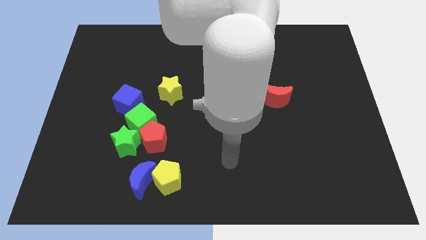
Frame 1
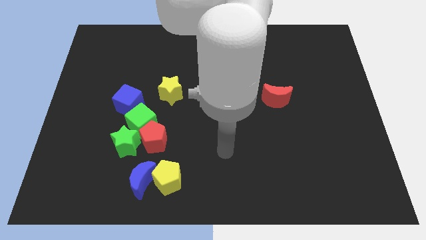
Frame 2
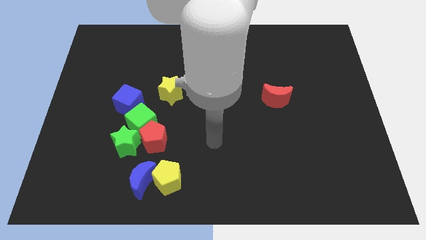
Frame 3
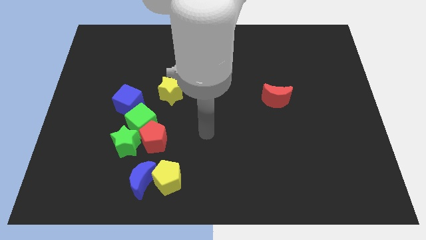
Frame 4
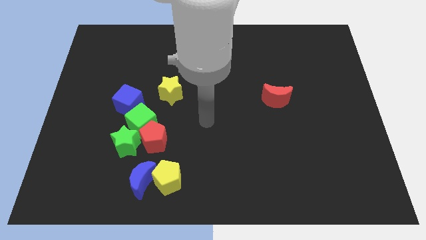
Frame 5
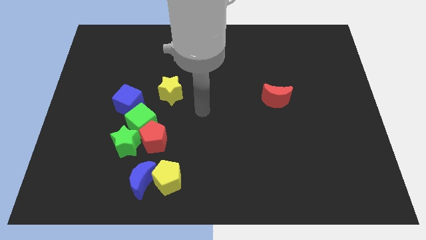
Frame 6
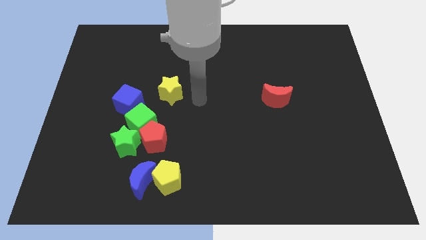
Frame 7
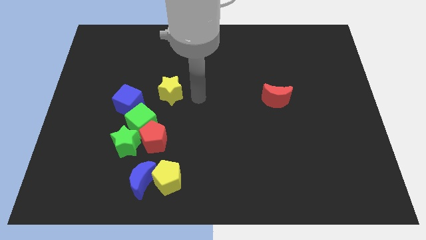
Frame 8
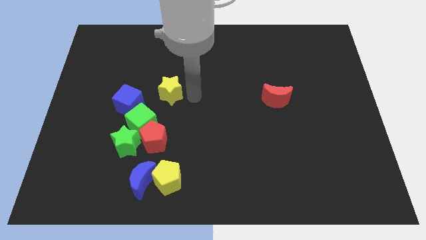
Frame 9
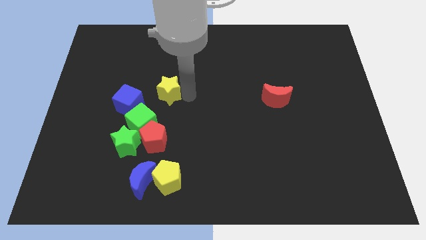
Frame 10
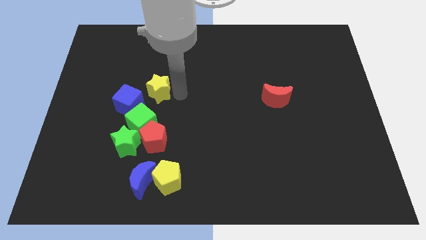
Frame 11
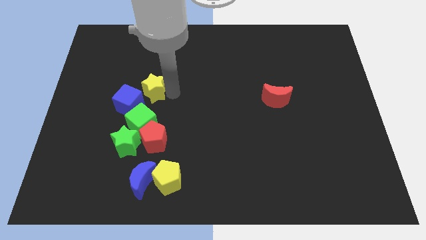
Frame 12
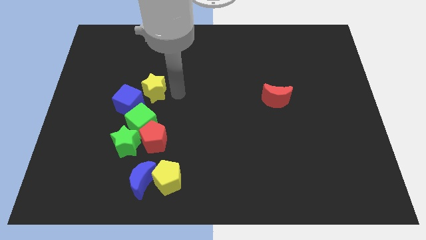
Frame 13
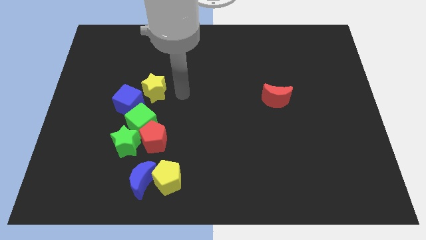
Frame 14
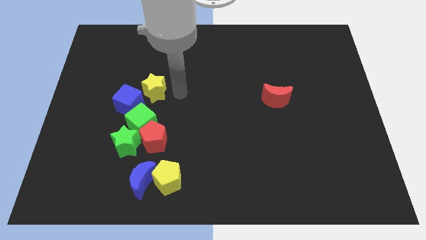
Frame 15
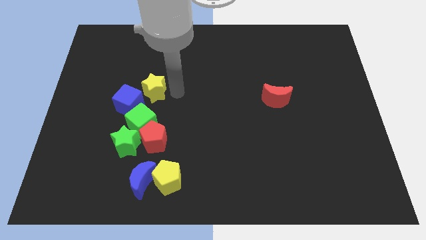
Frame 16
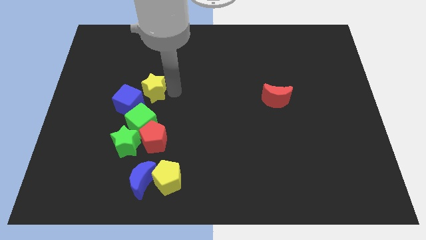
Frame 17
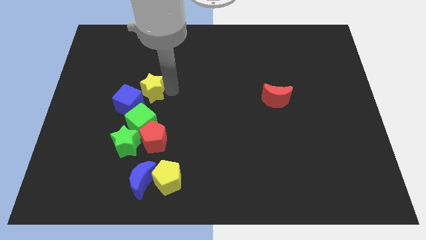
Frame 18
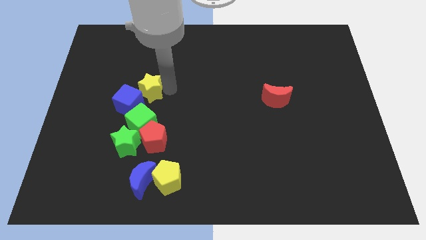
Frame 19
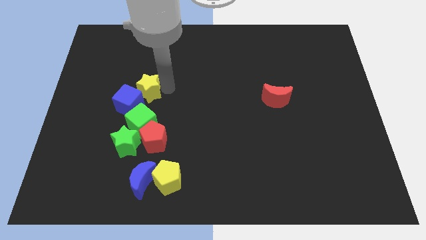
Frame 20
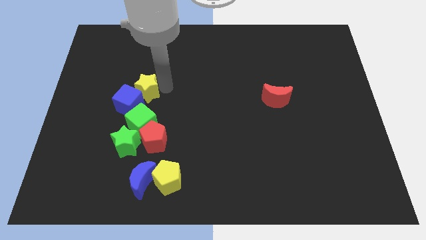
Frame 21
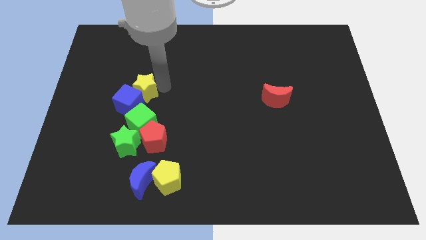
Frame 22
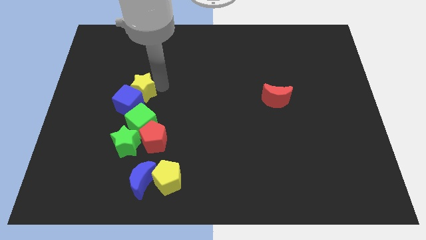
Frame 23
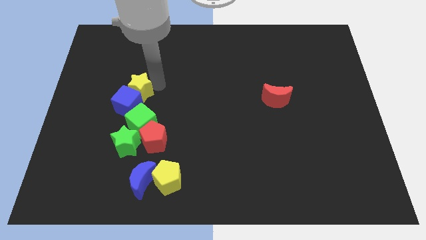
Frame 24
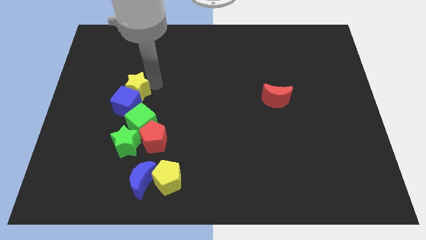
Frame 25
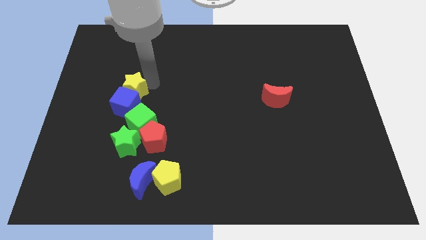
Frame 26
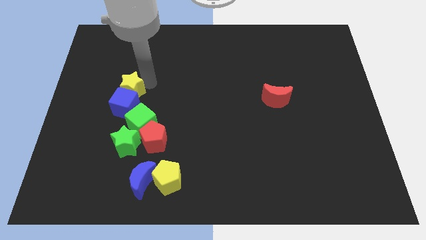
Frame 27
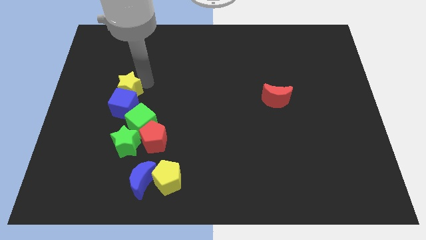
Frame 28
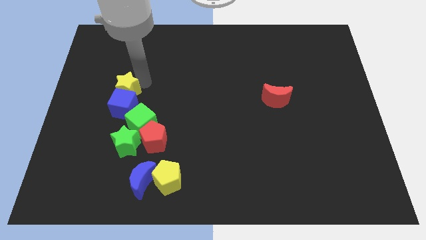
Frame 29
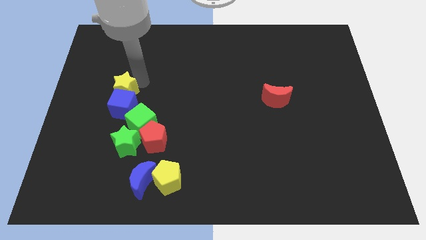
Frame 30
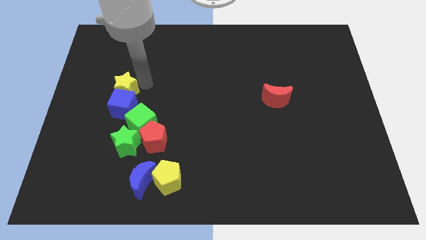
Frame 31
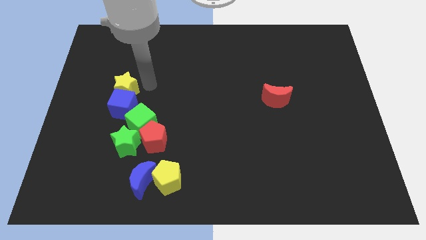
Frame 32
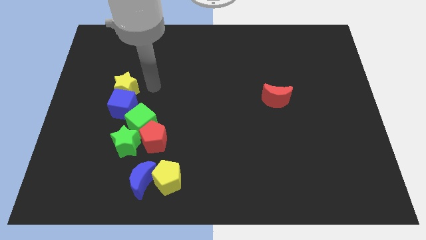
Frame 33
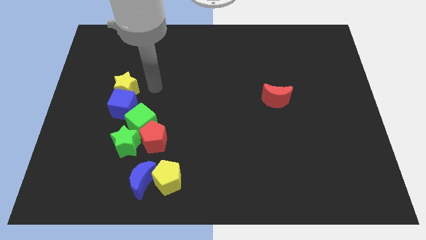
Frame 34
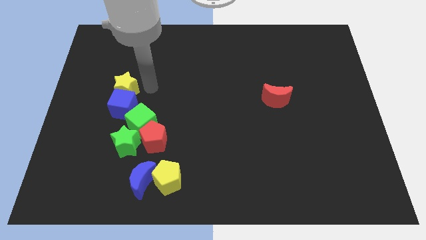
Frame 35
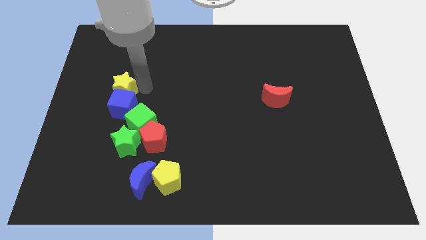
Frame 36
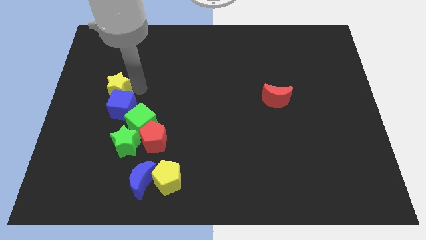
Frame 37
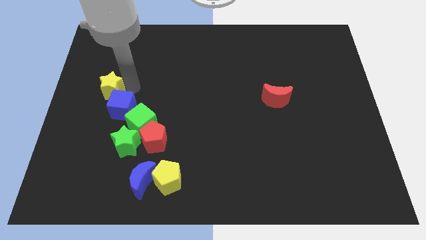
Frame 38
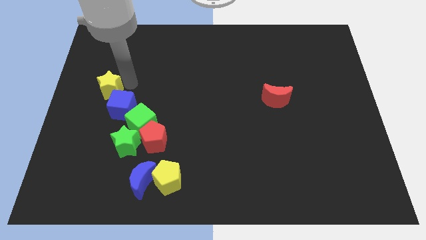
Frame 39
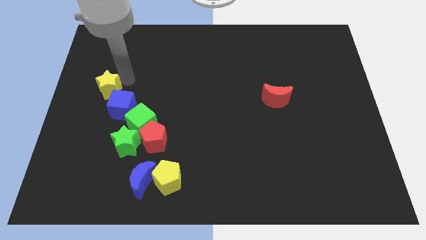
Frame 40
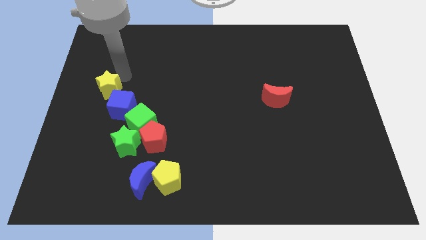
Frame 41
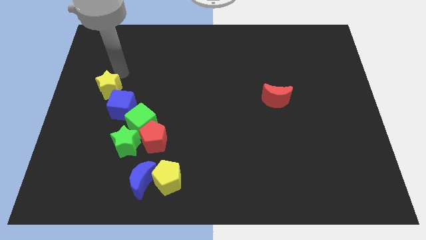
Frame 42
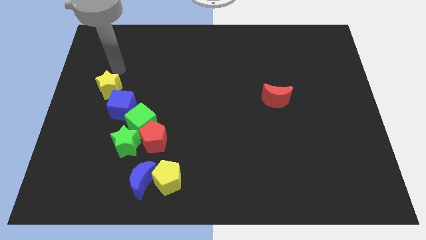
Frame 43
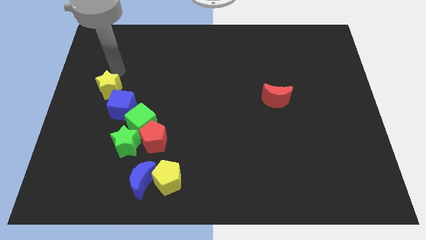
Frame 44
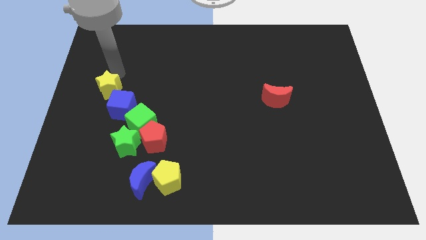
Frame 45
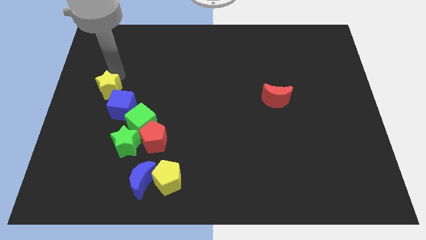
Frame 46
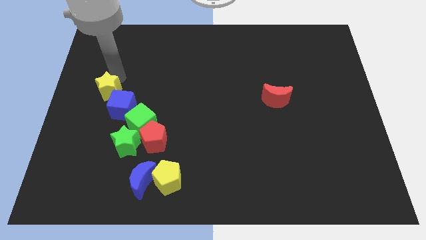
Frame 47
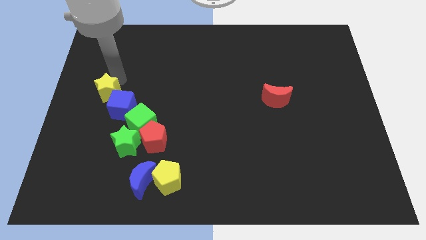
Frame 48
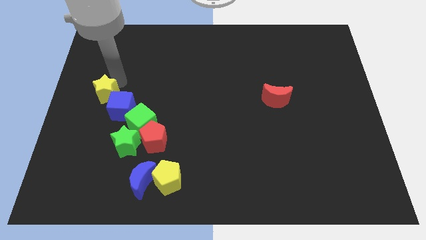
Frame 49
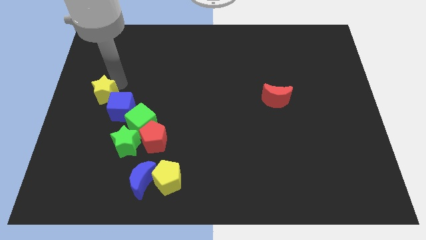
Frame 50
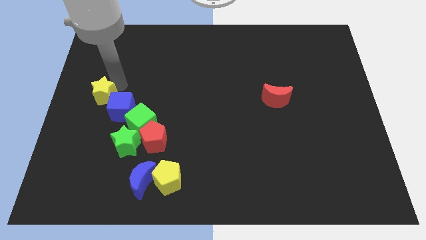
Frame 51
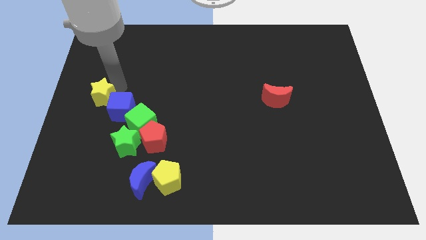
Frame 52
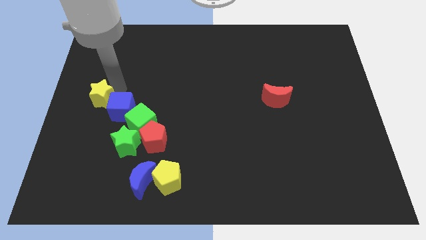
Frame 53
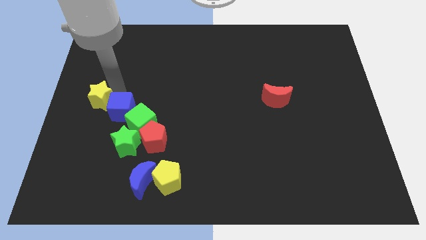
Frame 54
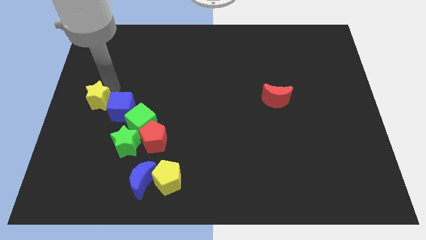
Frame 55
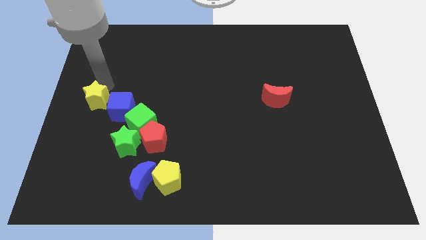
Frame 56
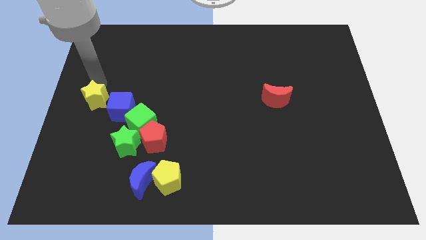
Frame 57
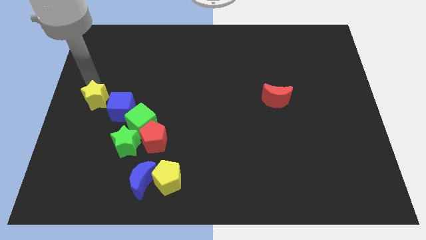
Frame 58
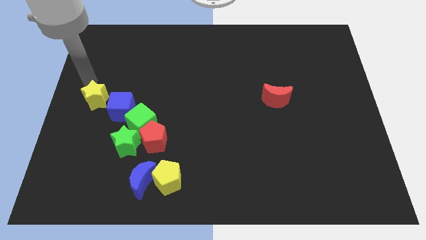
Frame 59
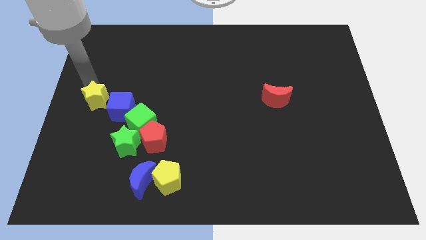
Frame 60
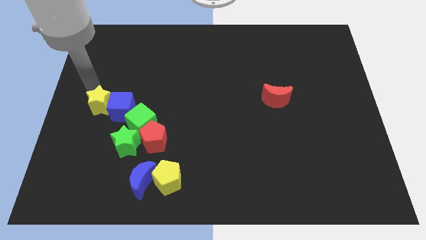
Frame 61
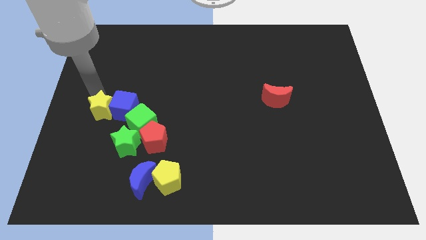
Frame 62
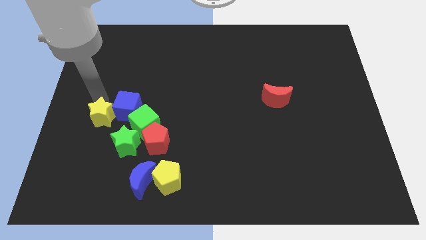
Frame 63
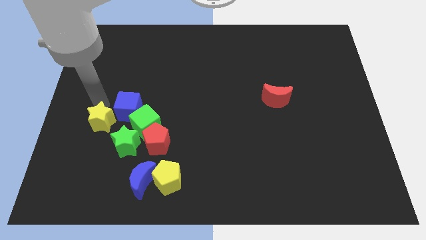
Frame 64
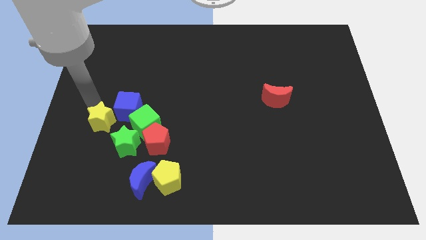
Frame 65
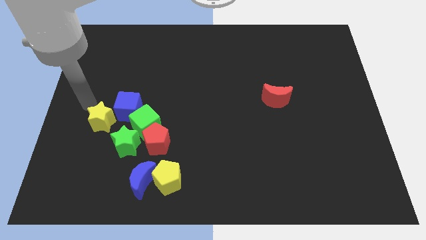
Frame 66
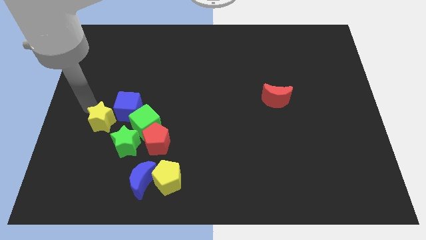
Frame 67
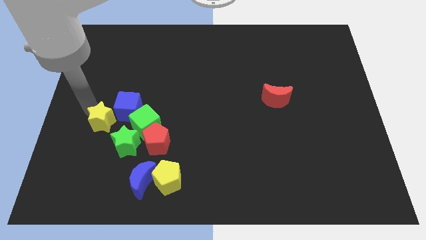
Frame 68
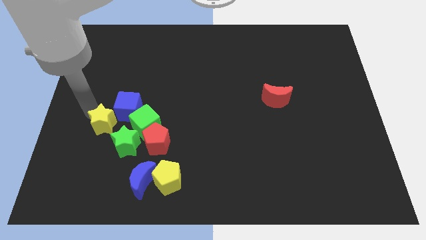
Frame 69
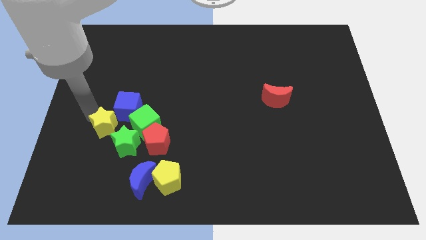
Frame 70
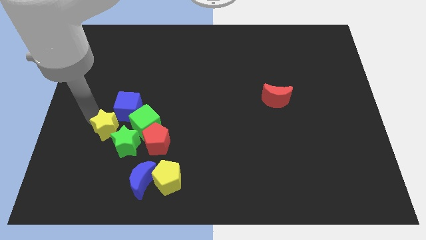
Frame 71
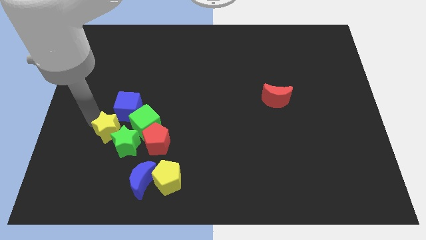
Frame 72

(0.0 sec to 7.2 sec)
push the yellow star to the green star

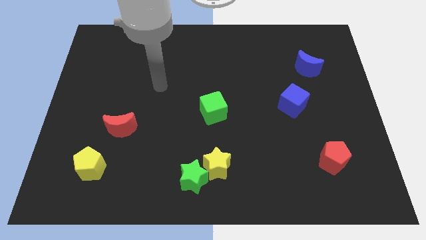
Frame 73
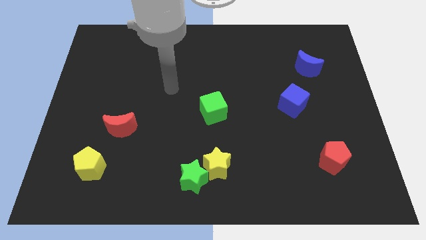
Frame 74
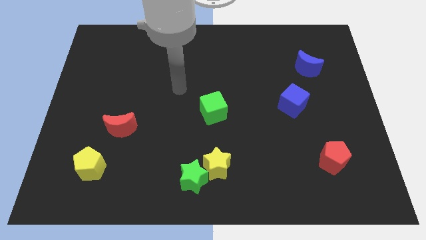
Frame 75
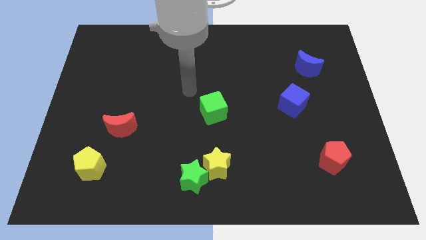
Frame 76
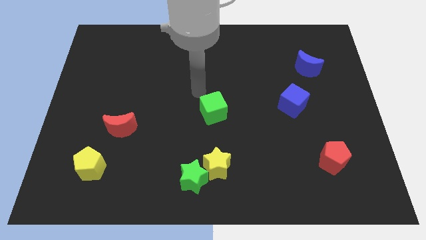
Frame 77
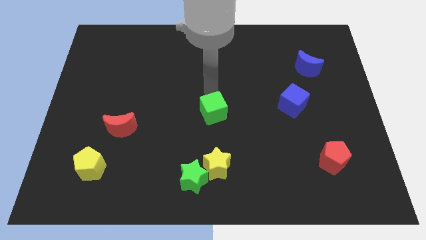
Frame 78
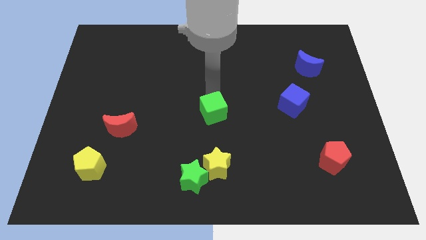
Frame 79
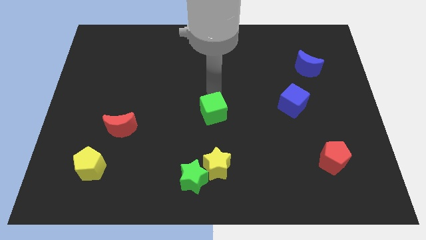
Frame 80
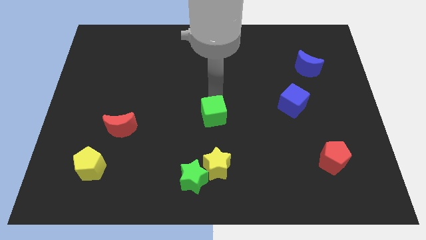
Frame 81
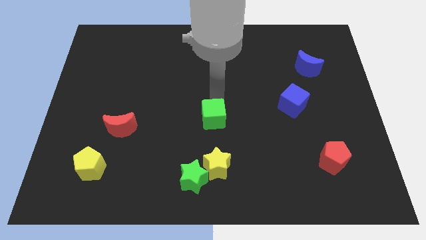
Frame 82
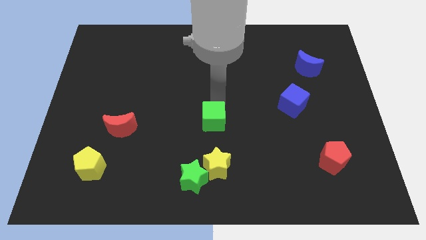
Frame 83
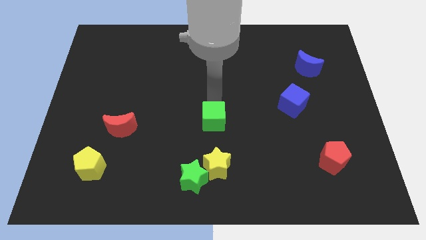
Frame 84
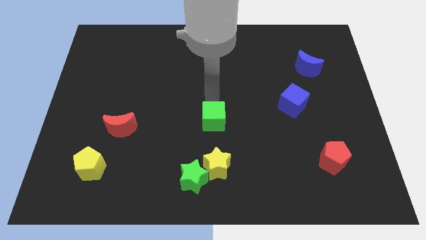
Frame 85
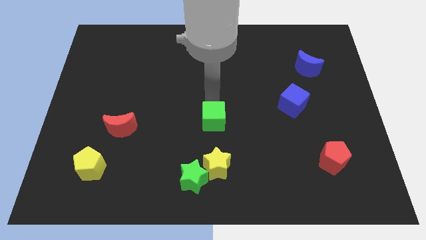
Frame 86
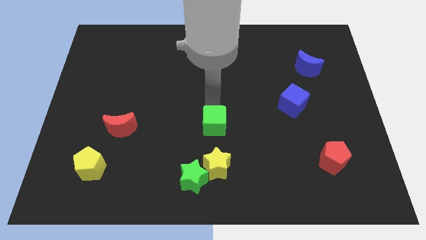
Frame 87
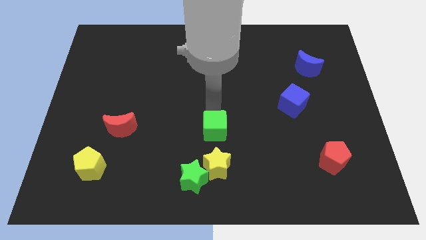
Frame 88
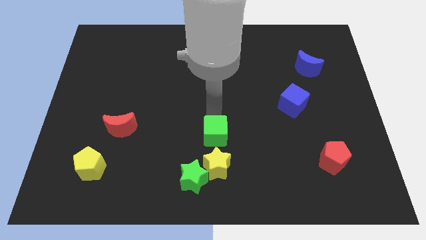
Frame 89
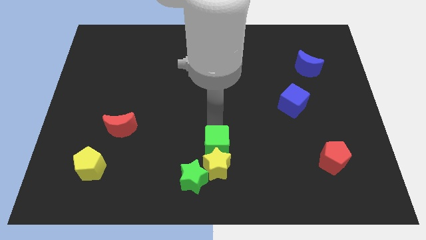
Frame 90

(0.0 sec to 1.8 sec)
push the green cube close to the yellow star
